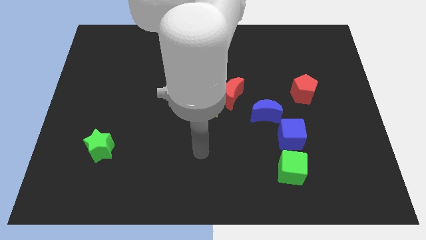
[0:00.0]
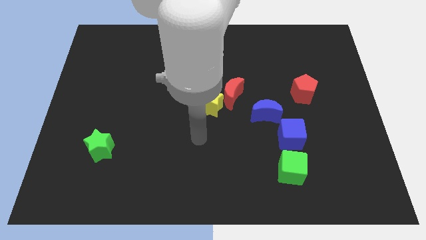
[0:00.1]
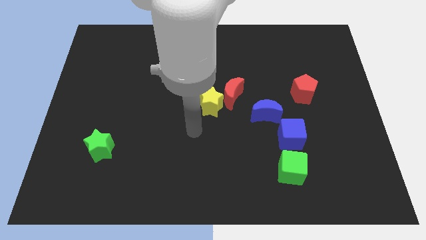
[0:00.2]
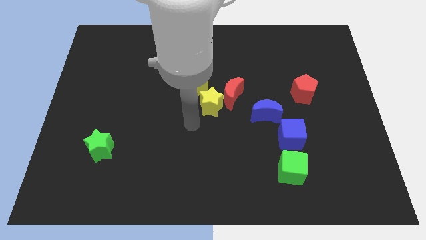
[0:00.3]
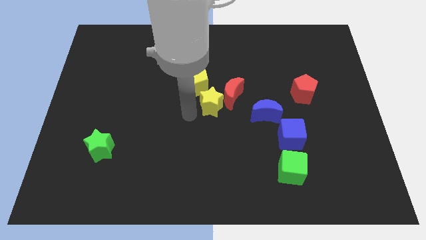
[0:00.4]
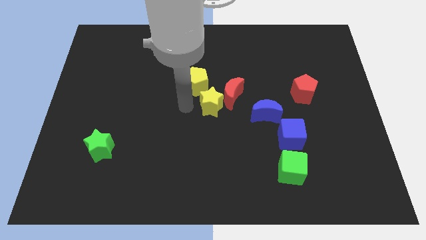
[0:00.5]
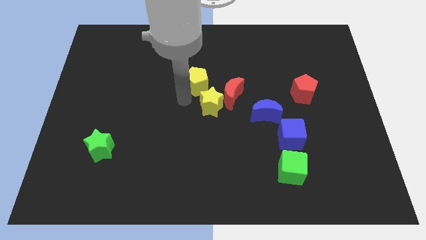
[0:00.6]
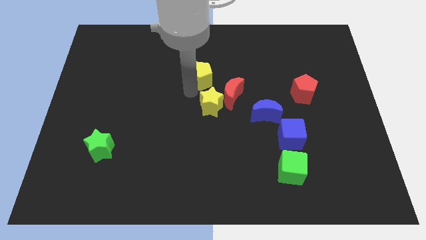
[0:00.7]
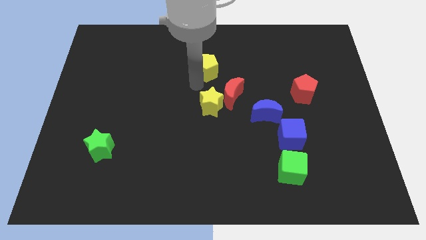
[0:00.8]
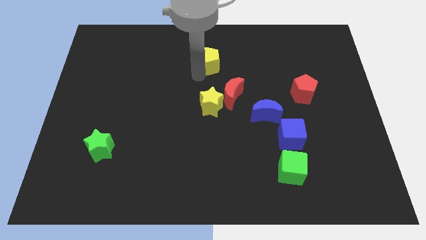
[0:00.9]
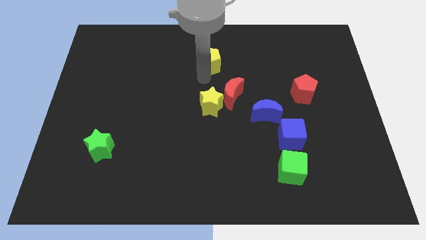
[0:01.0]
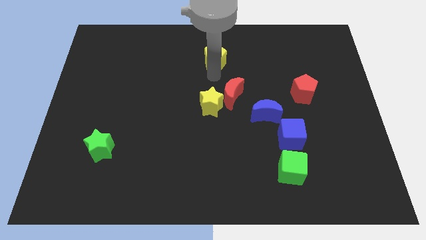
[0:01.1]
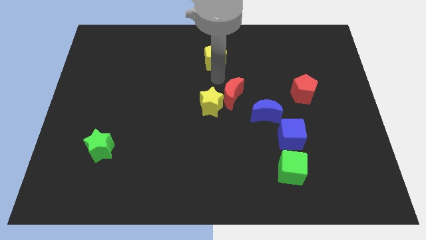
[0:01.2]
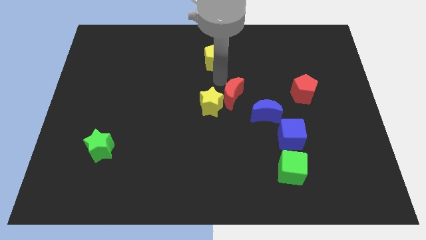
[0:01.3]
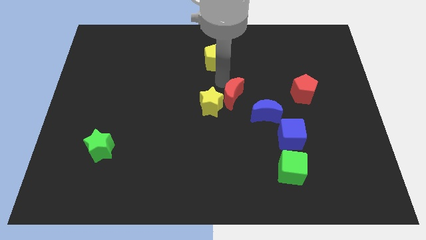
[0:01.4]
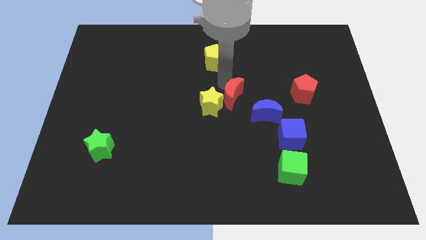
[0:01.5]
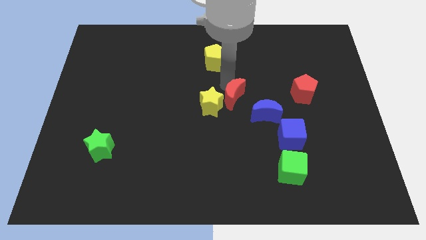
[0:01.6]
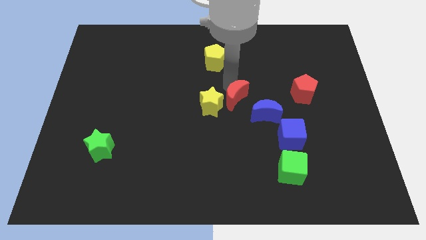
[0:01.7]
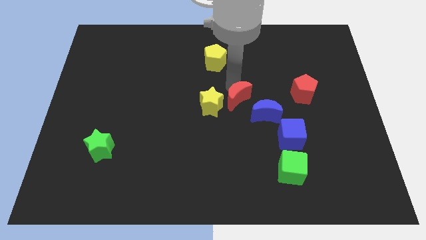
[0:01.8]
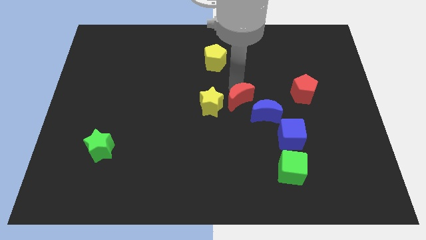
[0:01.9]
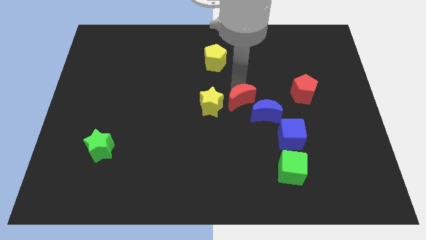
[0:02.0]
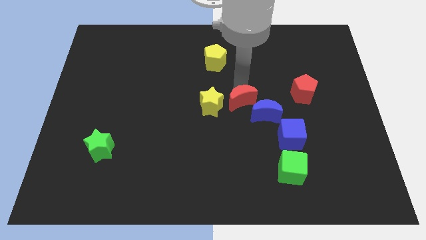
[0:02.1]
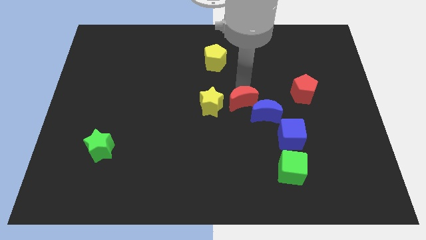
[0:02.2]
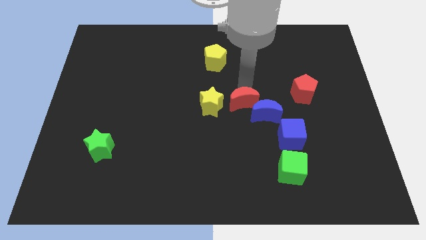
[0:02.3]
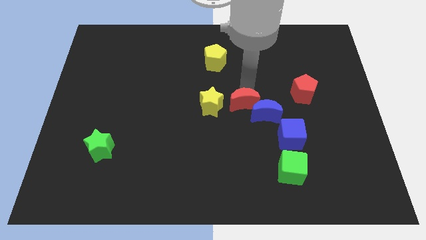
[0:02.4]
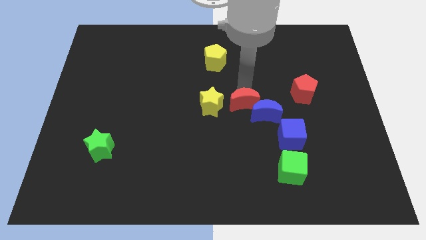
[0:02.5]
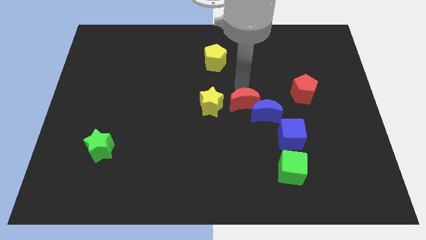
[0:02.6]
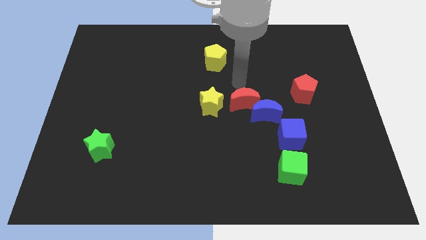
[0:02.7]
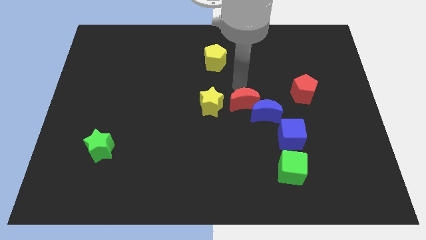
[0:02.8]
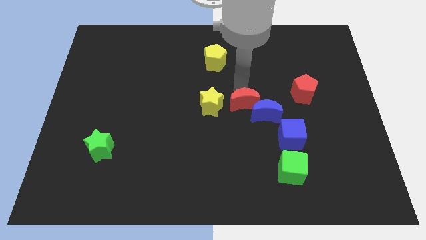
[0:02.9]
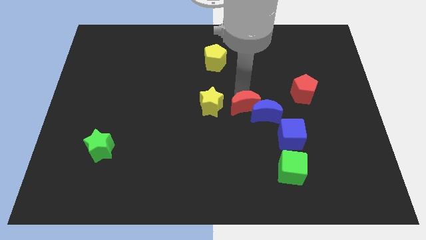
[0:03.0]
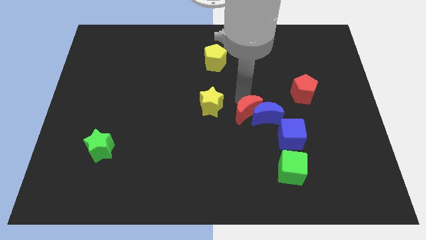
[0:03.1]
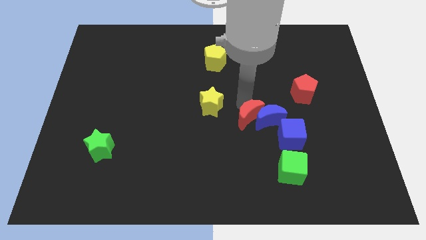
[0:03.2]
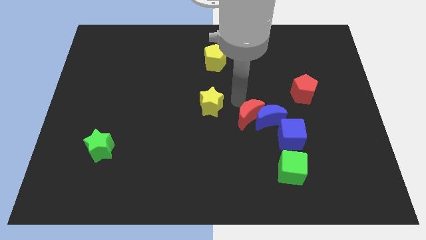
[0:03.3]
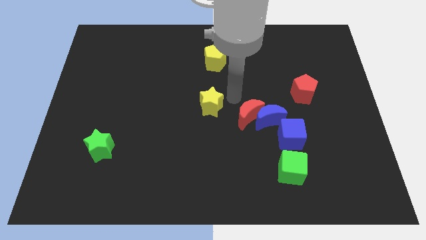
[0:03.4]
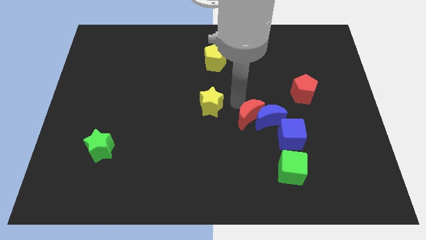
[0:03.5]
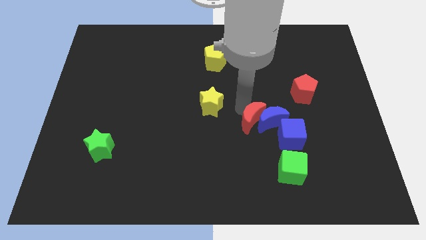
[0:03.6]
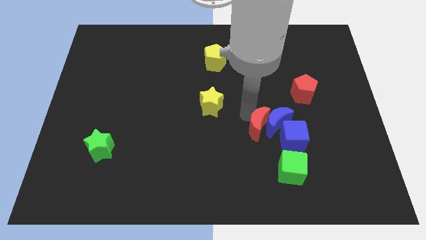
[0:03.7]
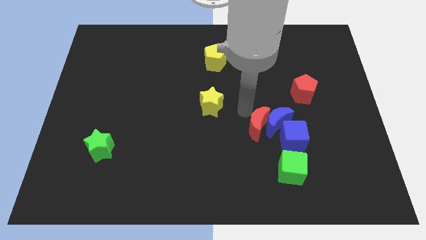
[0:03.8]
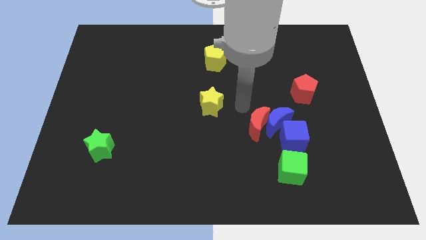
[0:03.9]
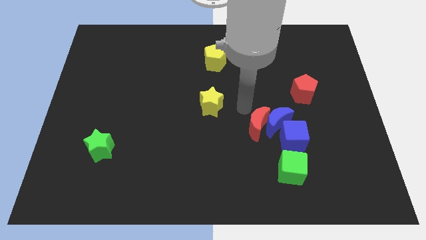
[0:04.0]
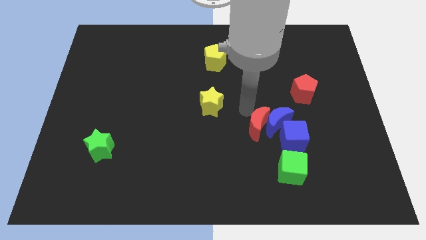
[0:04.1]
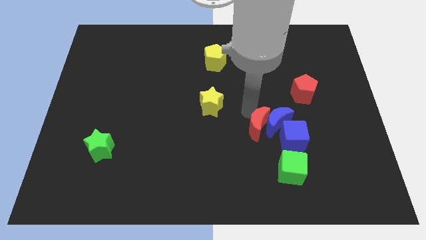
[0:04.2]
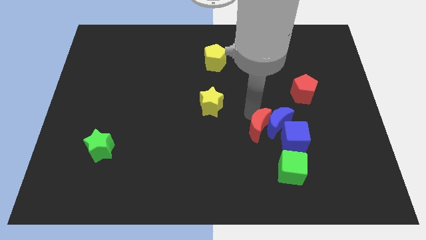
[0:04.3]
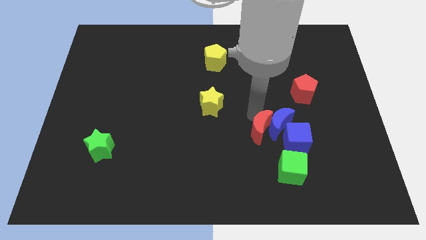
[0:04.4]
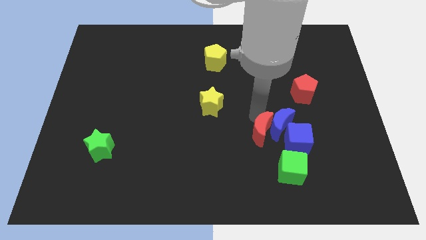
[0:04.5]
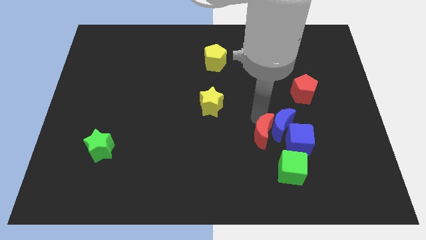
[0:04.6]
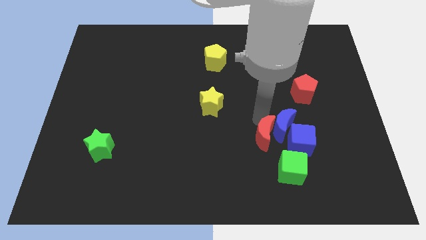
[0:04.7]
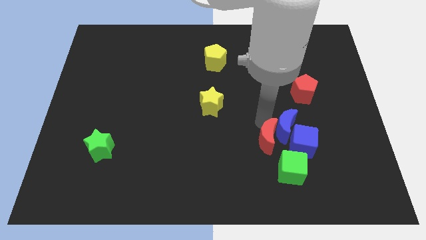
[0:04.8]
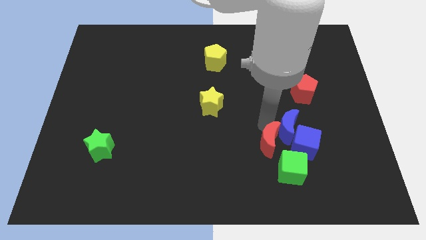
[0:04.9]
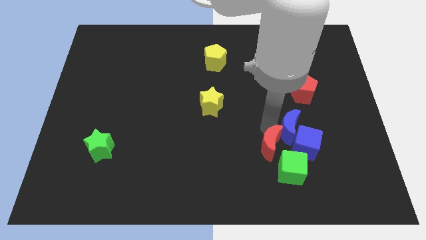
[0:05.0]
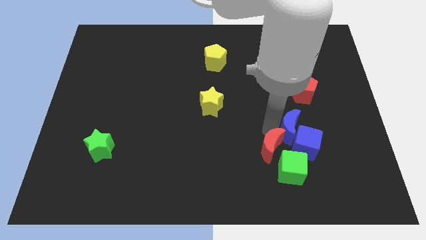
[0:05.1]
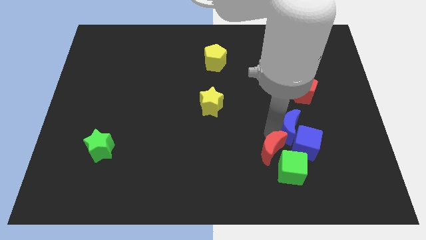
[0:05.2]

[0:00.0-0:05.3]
push the red moon to the green cube

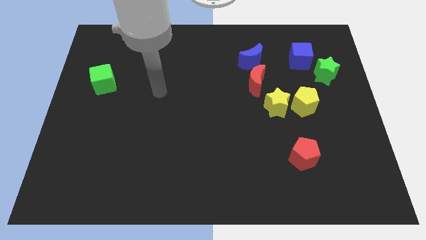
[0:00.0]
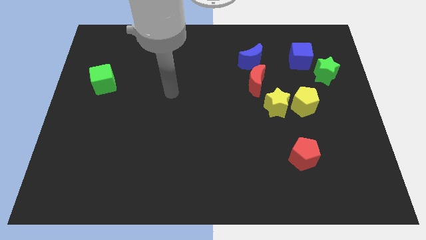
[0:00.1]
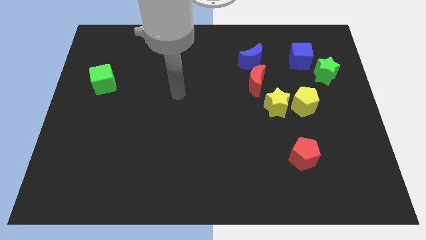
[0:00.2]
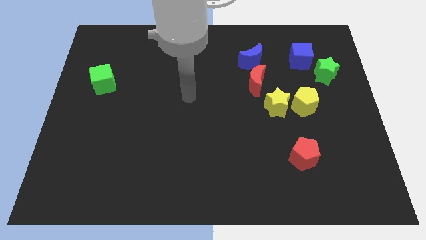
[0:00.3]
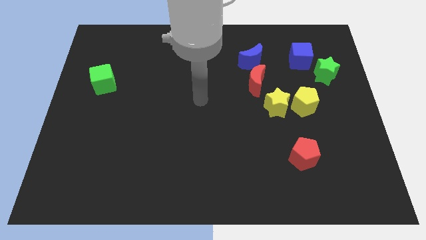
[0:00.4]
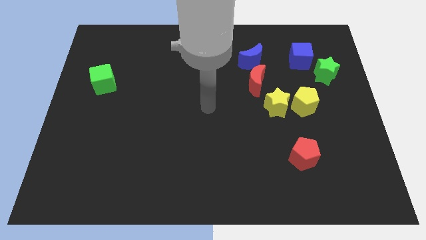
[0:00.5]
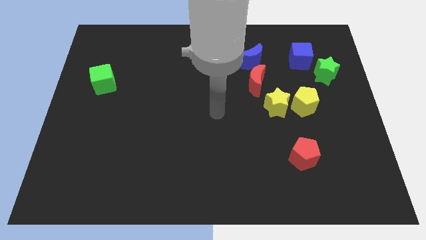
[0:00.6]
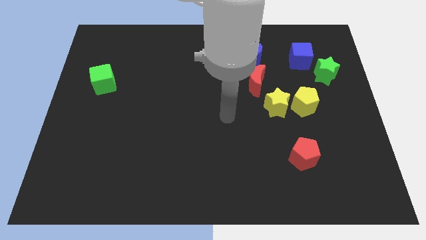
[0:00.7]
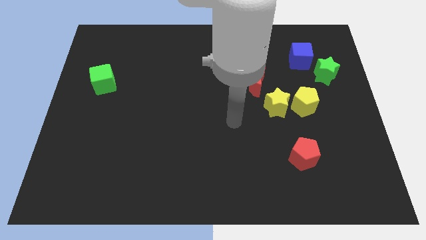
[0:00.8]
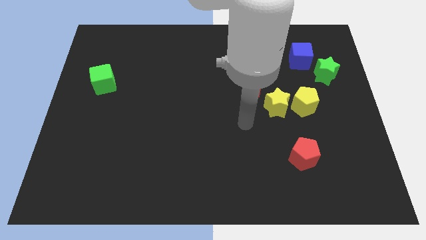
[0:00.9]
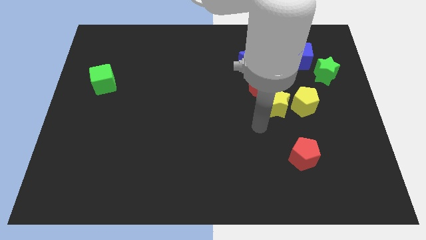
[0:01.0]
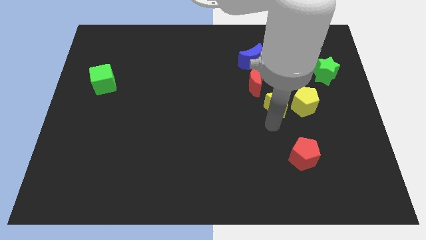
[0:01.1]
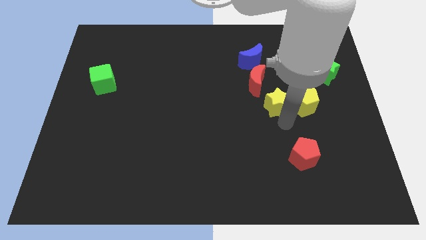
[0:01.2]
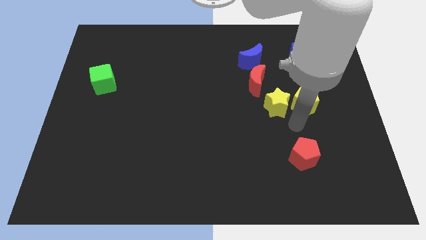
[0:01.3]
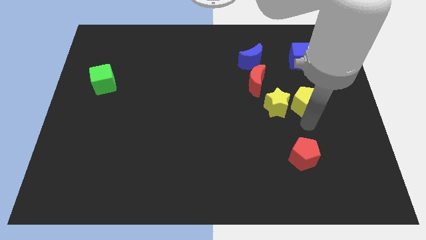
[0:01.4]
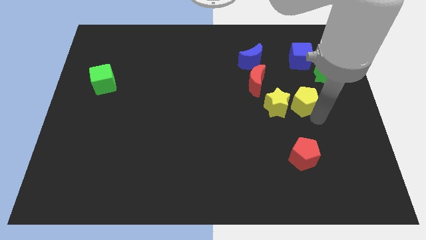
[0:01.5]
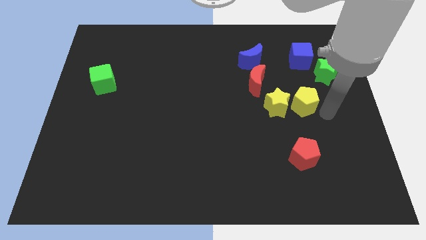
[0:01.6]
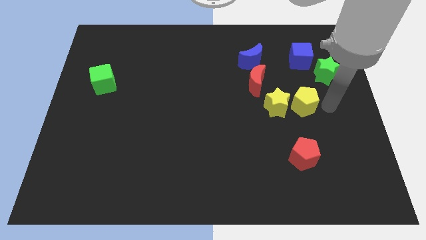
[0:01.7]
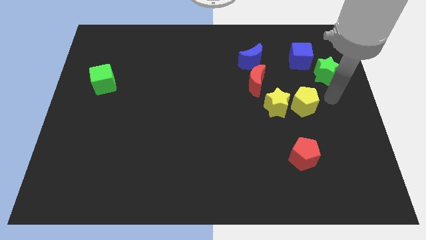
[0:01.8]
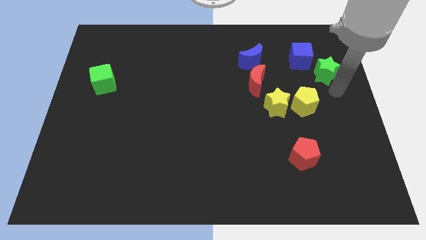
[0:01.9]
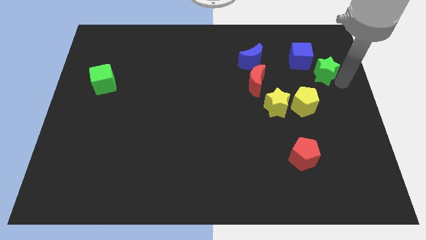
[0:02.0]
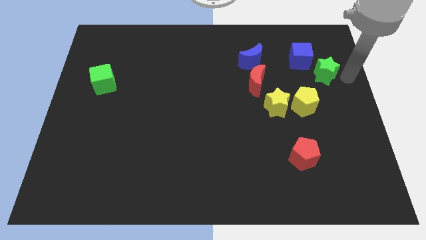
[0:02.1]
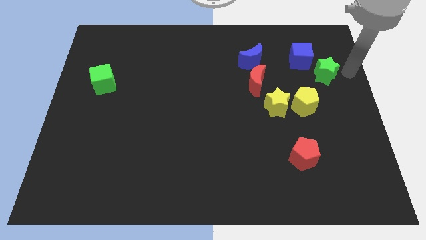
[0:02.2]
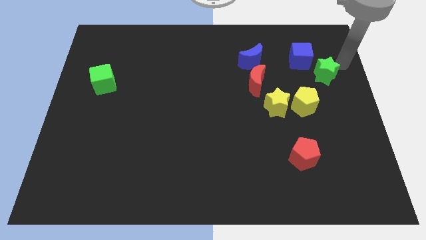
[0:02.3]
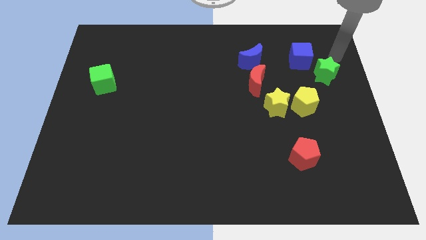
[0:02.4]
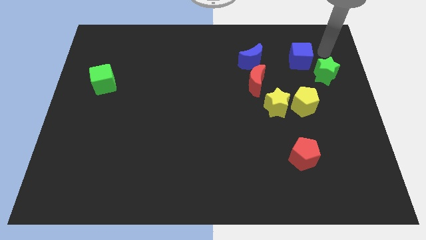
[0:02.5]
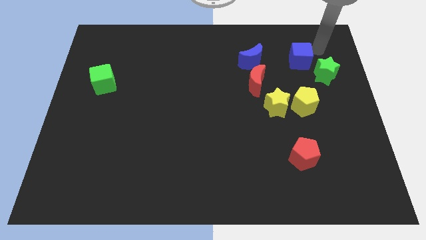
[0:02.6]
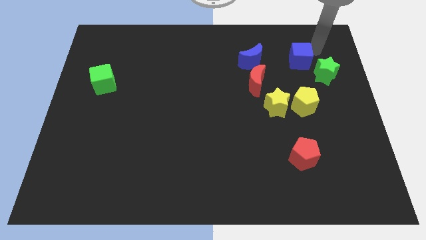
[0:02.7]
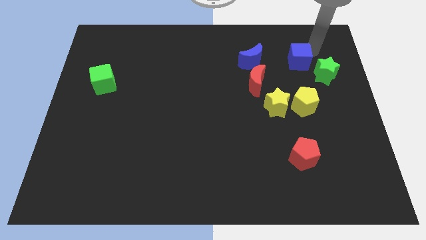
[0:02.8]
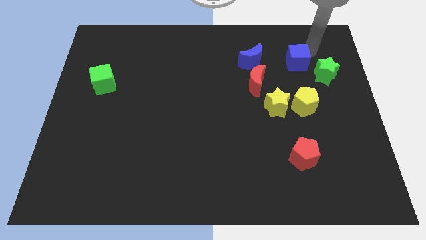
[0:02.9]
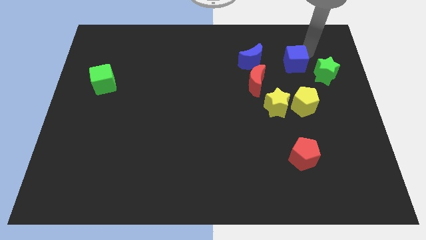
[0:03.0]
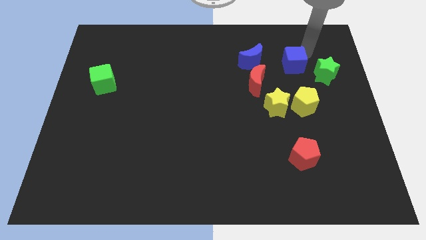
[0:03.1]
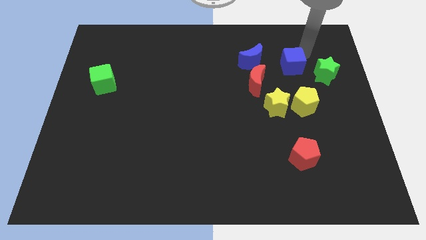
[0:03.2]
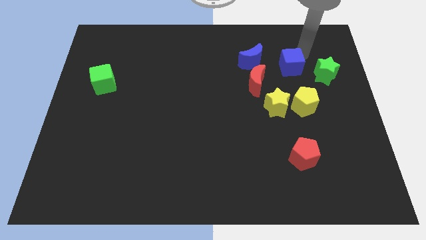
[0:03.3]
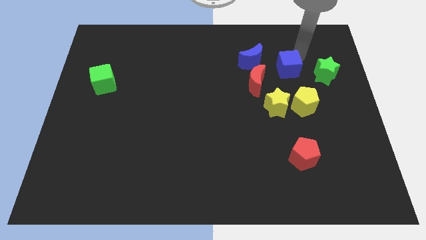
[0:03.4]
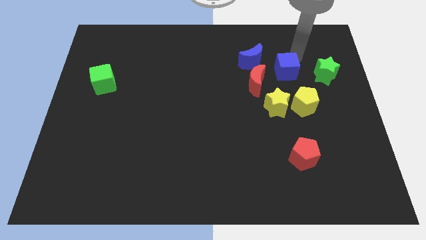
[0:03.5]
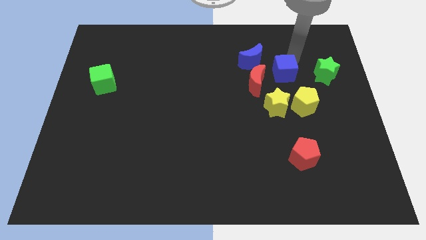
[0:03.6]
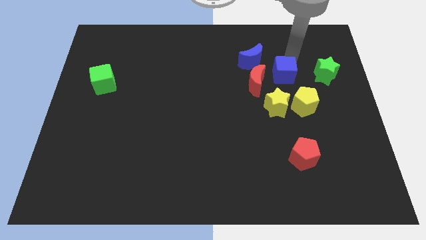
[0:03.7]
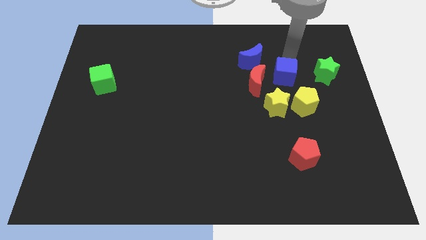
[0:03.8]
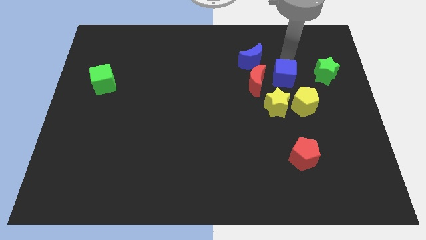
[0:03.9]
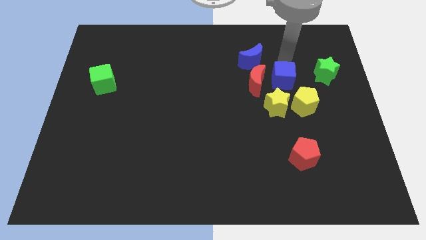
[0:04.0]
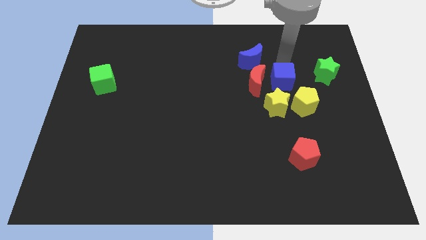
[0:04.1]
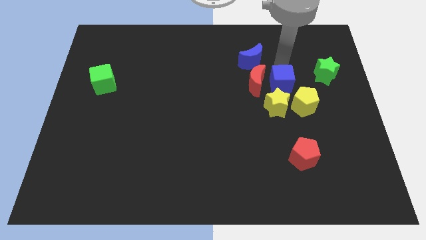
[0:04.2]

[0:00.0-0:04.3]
slide the blue cube next to the red moon
